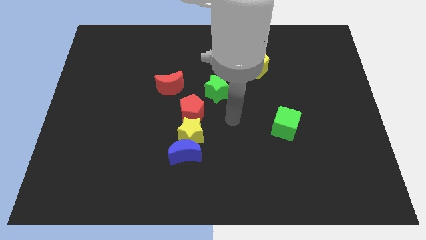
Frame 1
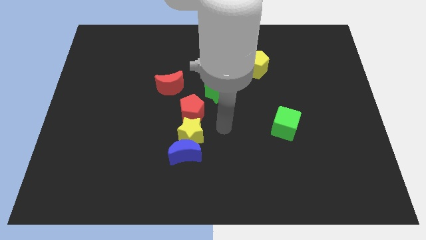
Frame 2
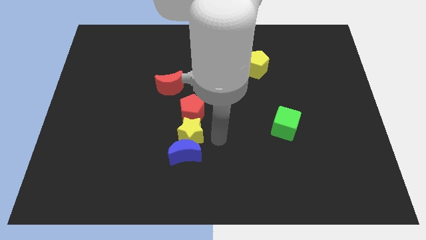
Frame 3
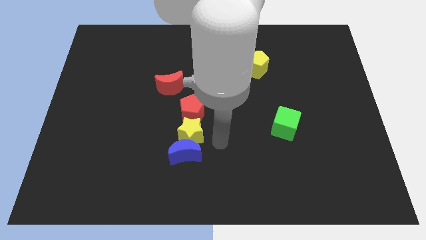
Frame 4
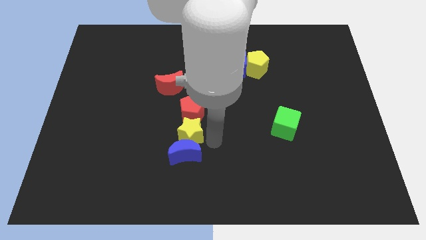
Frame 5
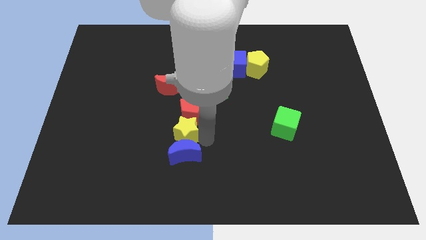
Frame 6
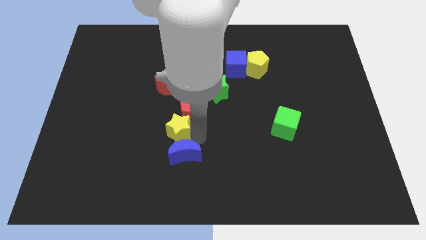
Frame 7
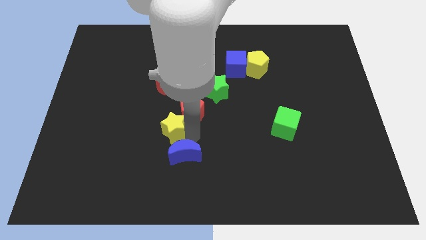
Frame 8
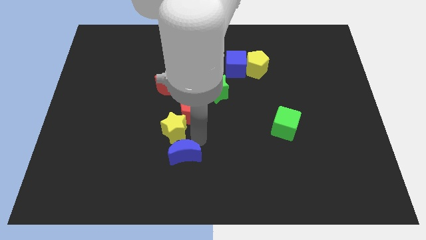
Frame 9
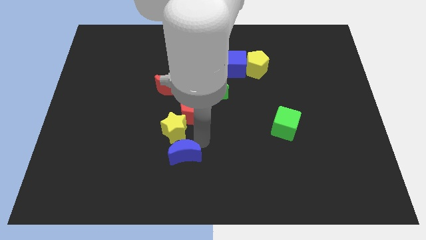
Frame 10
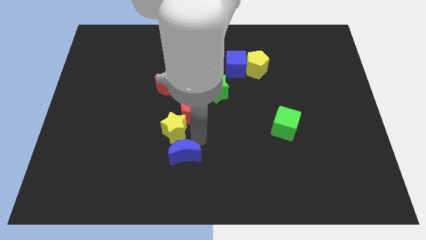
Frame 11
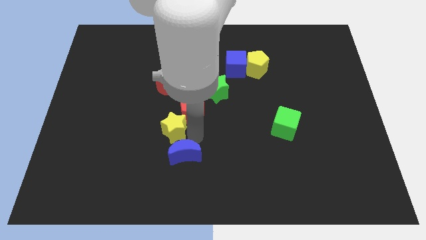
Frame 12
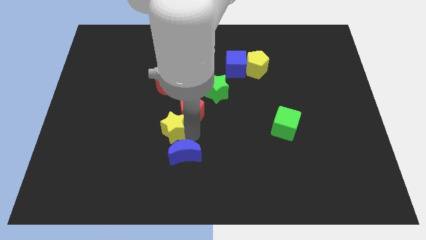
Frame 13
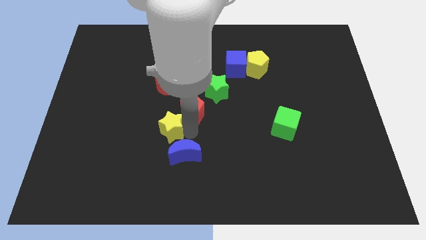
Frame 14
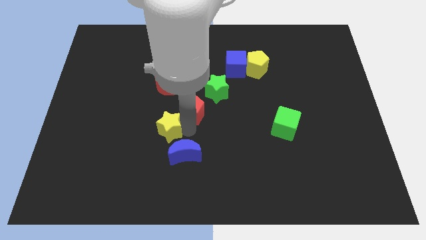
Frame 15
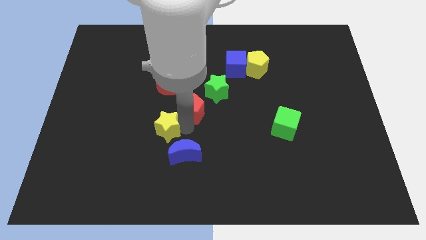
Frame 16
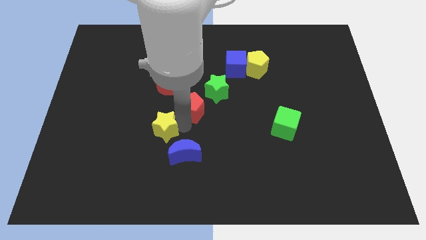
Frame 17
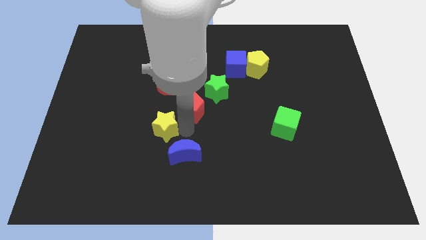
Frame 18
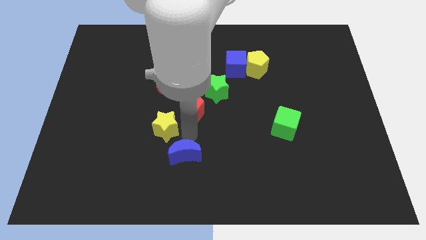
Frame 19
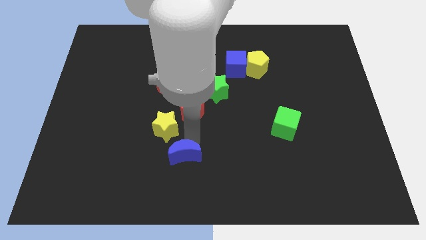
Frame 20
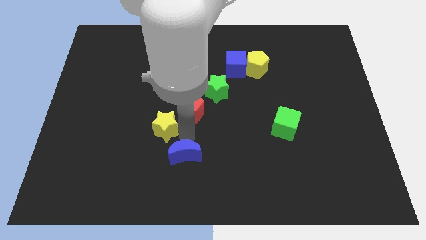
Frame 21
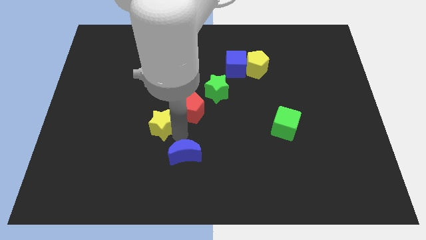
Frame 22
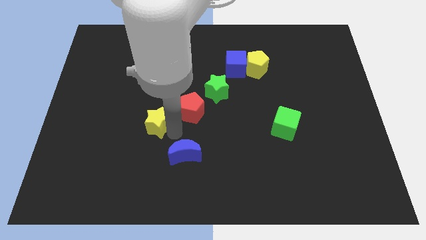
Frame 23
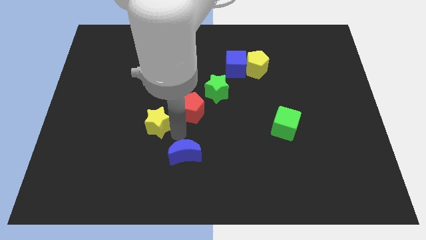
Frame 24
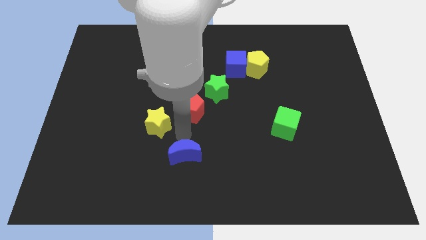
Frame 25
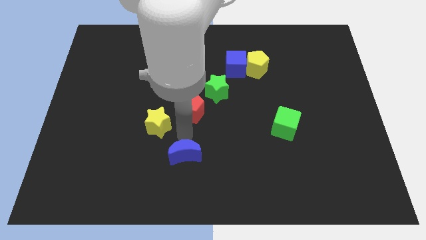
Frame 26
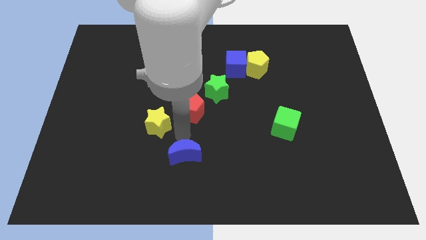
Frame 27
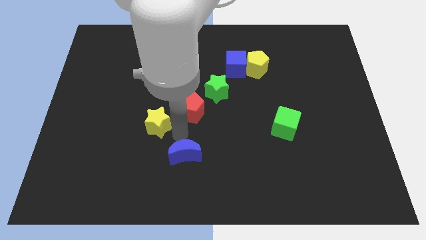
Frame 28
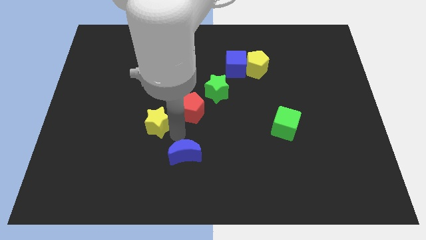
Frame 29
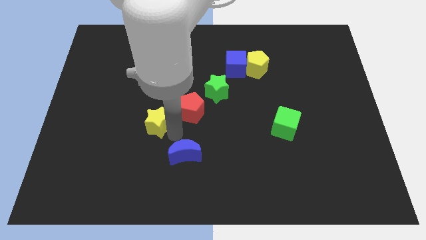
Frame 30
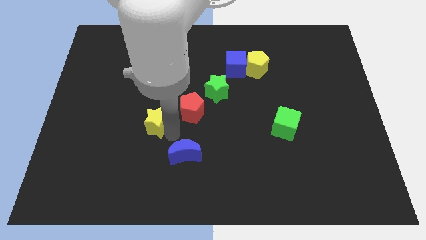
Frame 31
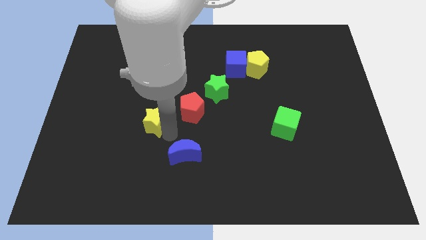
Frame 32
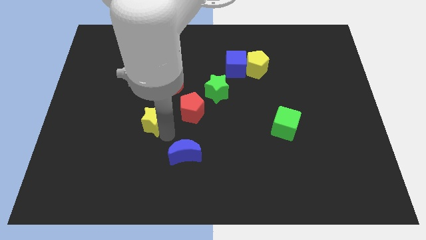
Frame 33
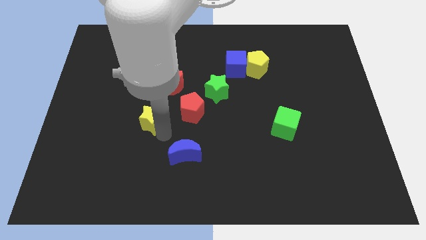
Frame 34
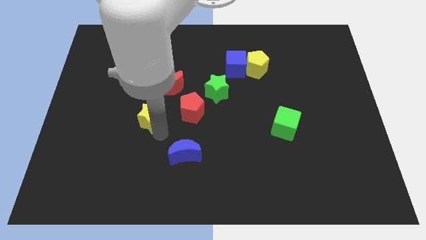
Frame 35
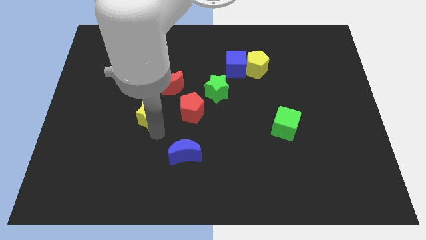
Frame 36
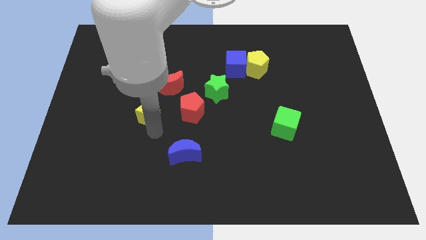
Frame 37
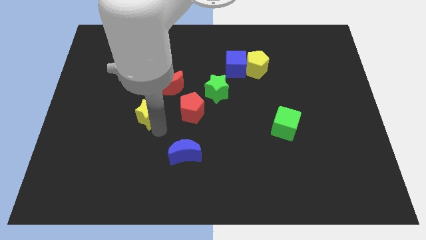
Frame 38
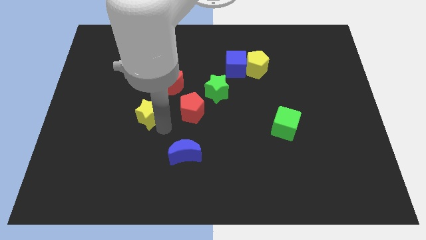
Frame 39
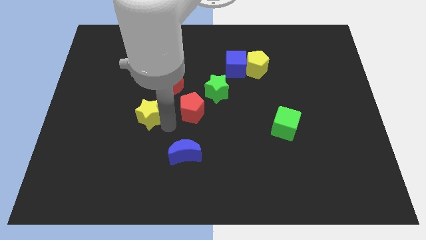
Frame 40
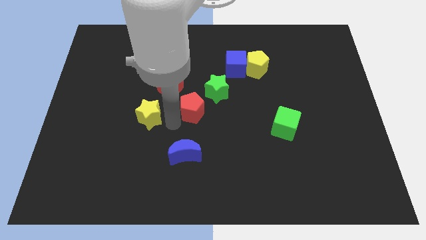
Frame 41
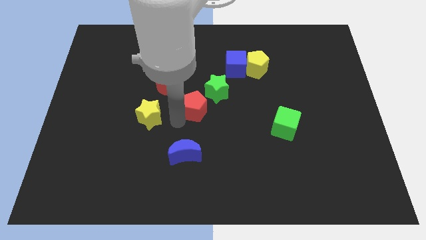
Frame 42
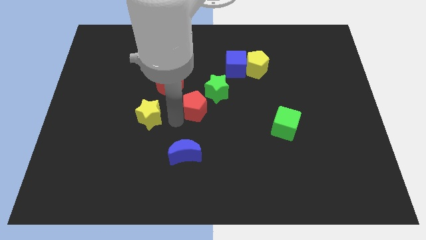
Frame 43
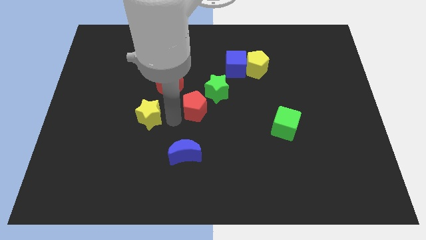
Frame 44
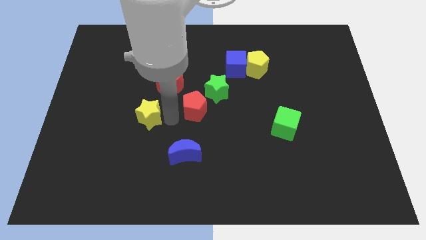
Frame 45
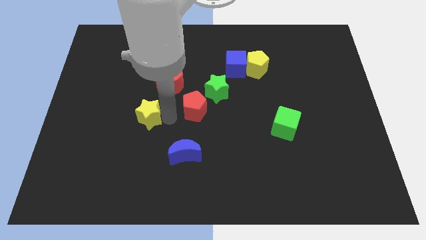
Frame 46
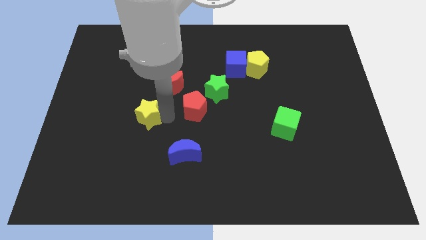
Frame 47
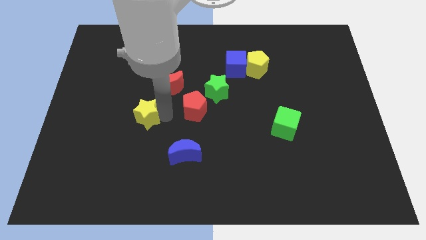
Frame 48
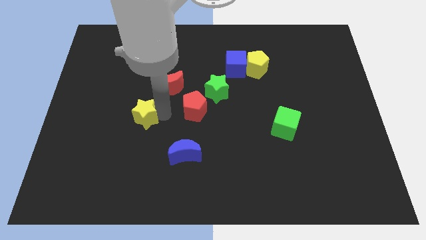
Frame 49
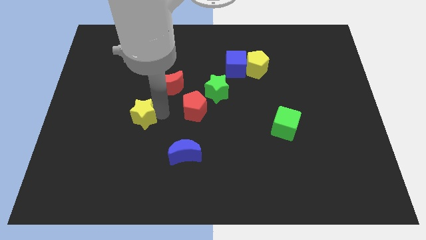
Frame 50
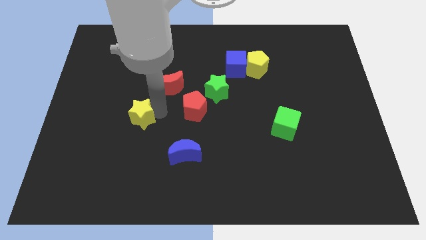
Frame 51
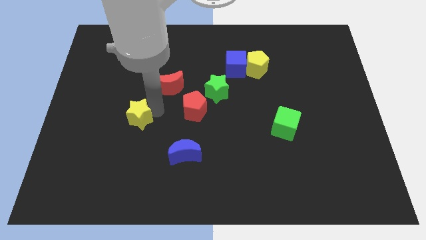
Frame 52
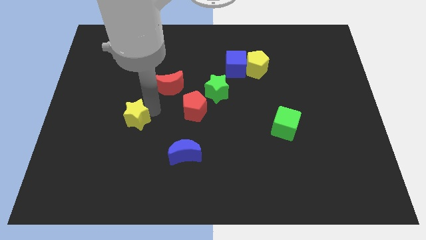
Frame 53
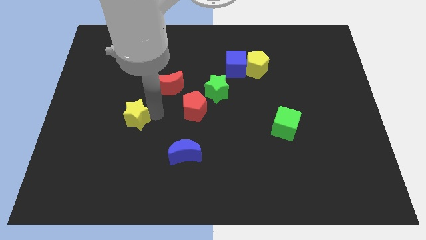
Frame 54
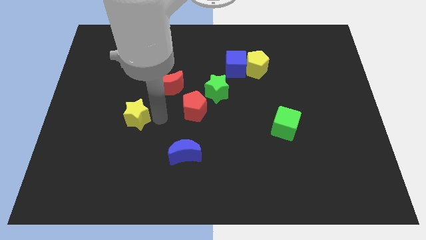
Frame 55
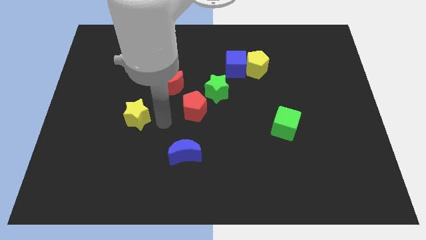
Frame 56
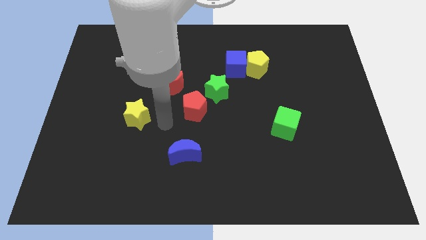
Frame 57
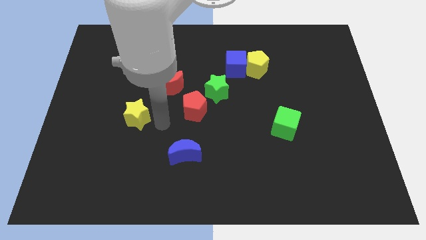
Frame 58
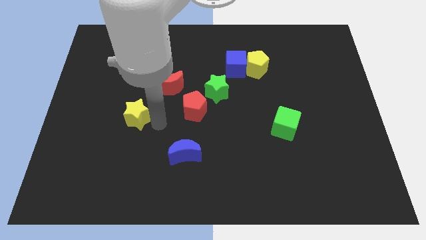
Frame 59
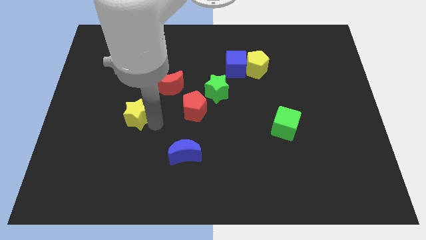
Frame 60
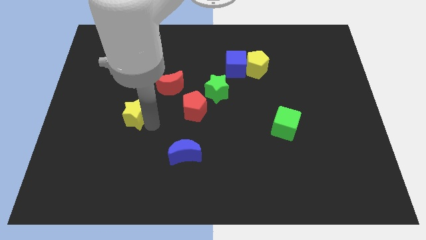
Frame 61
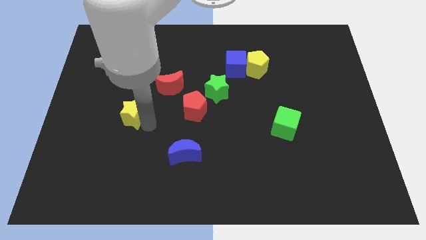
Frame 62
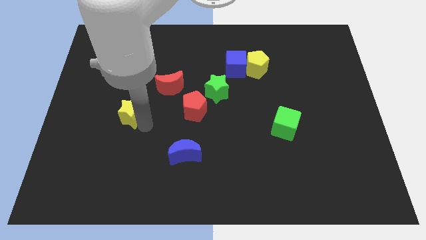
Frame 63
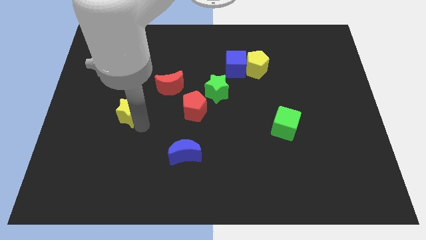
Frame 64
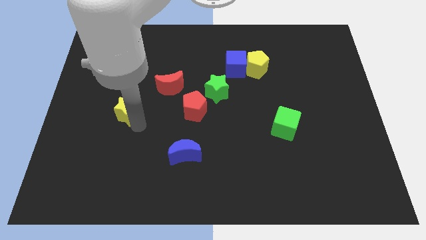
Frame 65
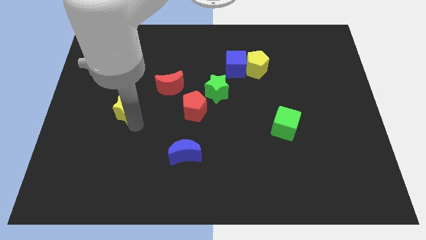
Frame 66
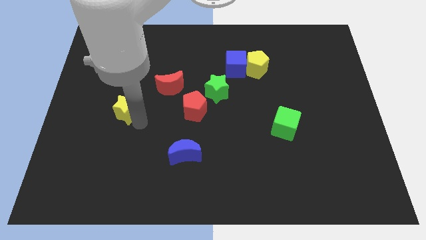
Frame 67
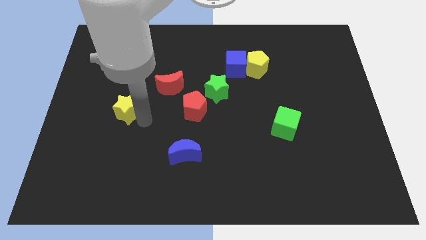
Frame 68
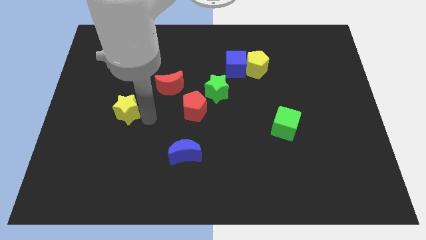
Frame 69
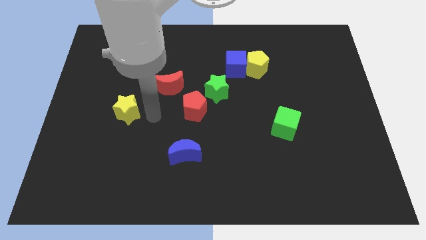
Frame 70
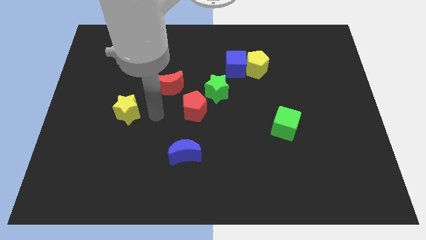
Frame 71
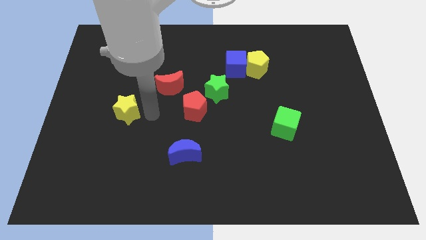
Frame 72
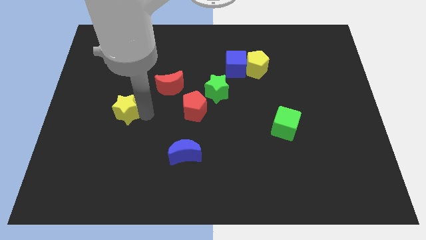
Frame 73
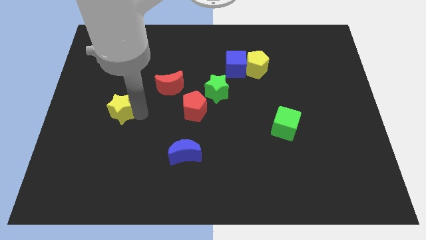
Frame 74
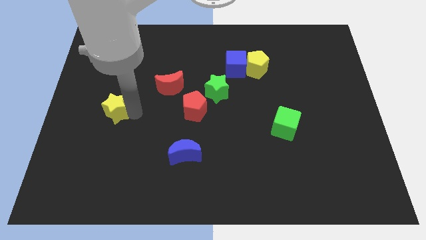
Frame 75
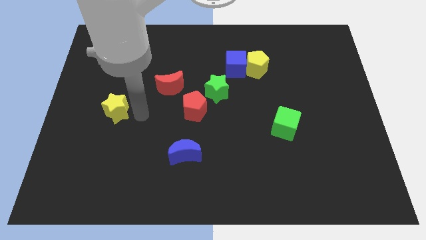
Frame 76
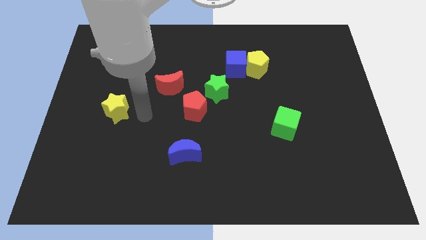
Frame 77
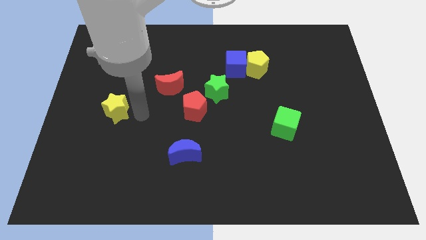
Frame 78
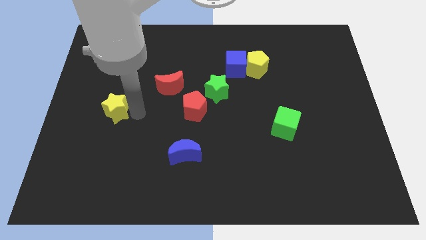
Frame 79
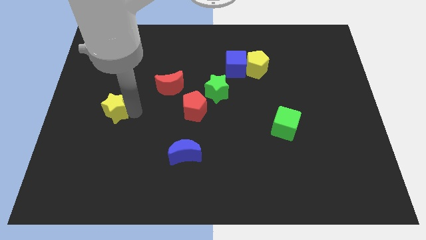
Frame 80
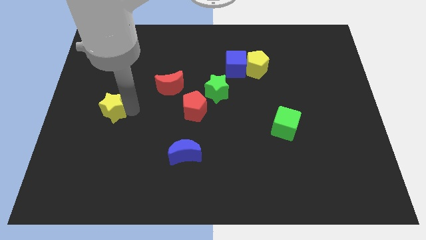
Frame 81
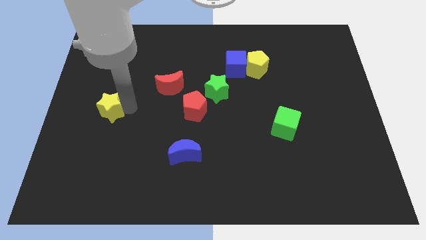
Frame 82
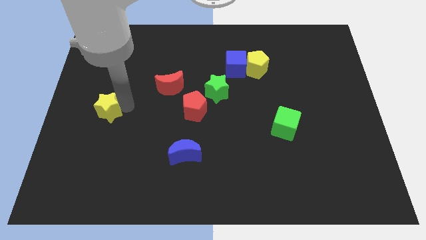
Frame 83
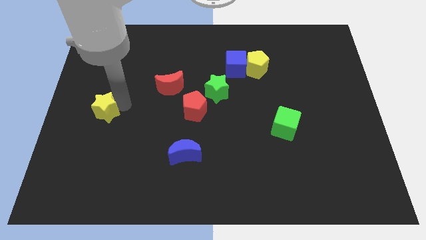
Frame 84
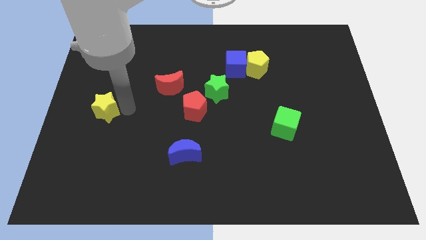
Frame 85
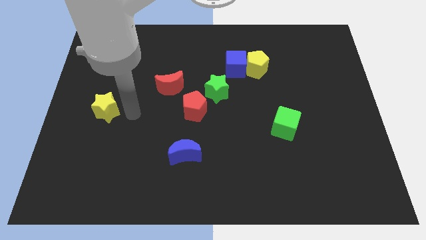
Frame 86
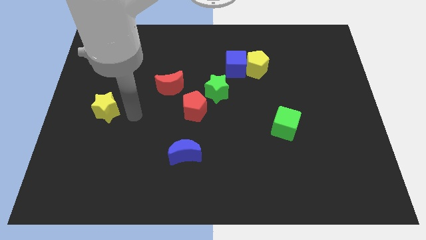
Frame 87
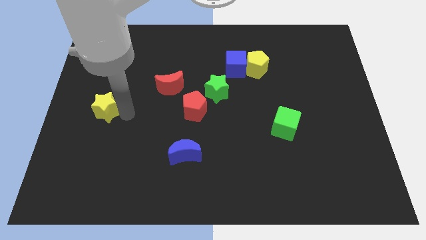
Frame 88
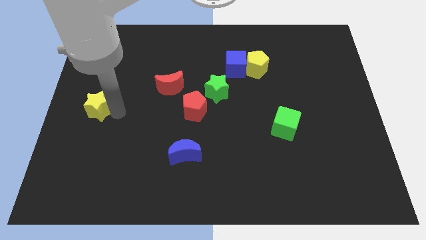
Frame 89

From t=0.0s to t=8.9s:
move the yellow star to the left side of the board
